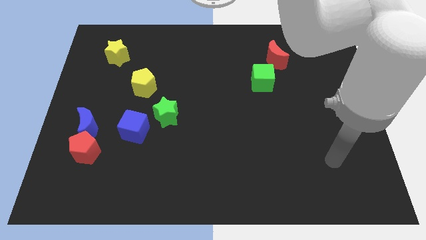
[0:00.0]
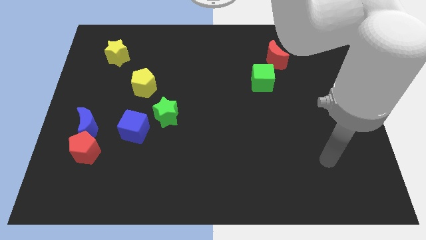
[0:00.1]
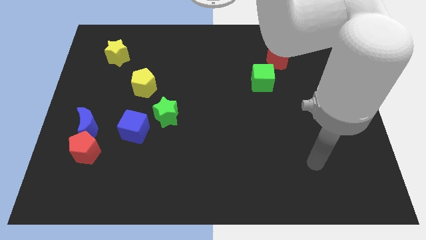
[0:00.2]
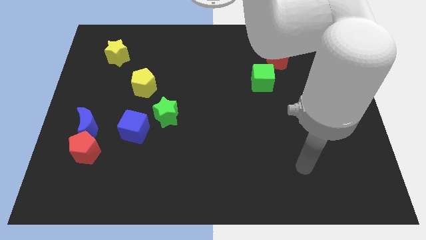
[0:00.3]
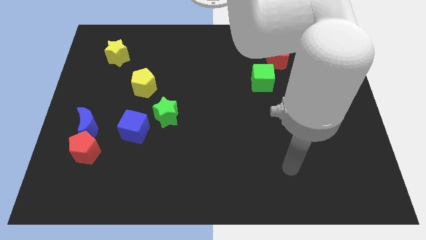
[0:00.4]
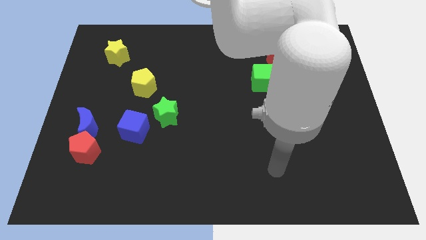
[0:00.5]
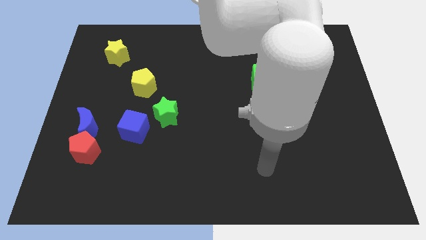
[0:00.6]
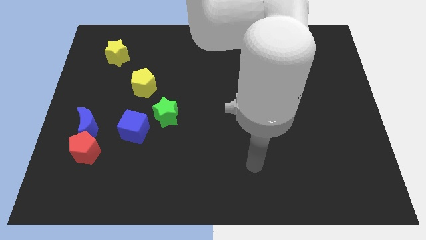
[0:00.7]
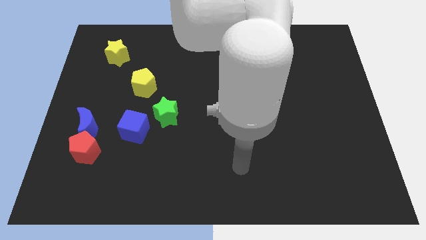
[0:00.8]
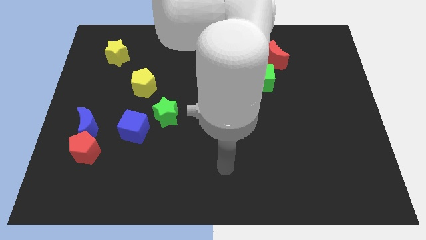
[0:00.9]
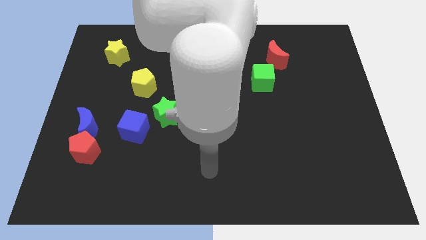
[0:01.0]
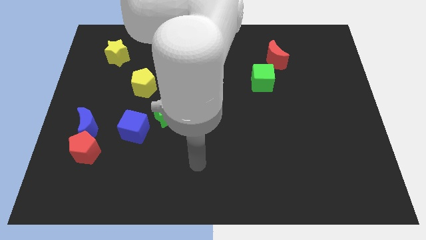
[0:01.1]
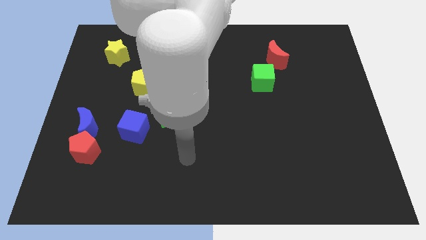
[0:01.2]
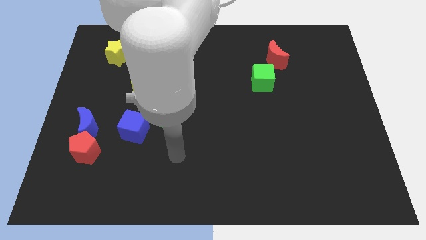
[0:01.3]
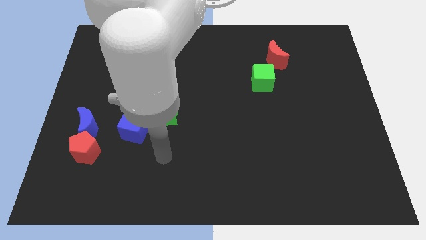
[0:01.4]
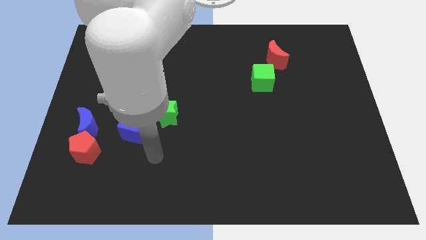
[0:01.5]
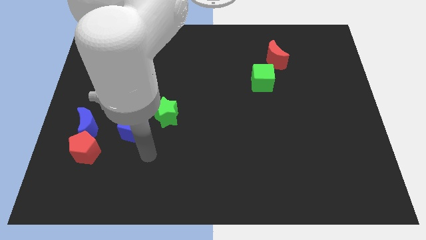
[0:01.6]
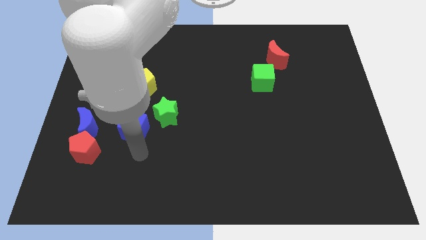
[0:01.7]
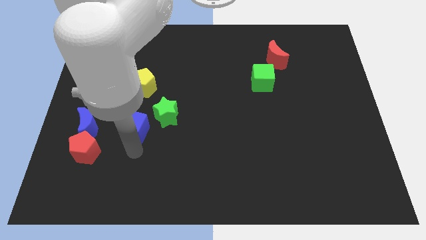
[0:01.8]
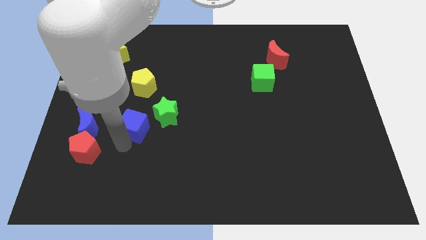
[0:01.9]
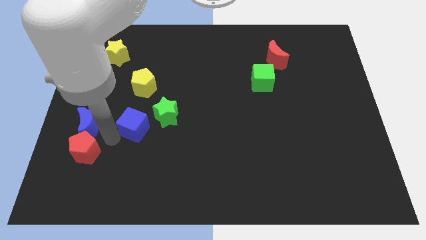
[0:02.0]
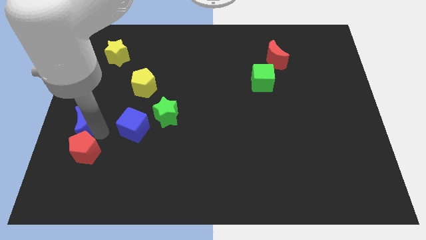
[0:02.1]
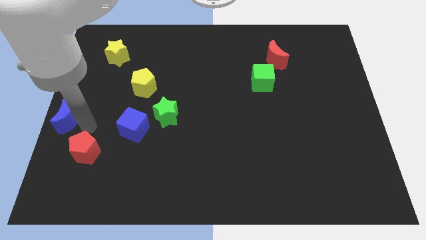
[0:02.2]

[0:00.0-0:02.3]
separate the red pentagon from the blue moon

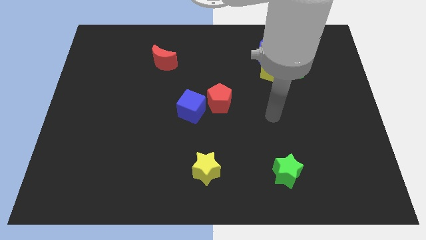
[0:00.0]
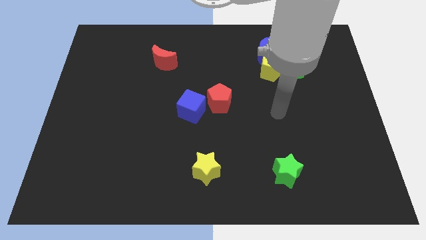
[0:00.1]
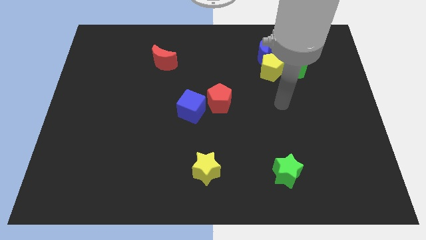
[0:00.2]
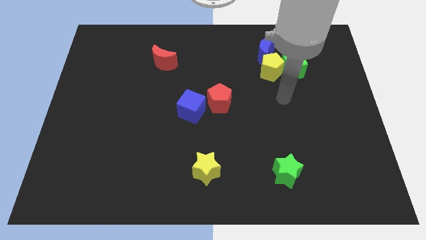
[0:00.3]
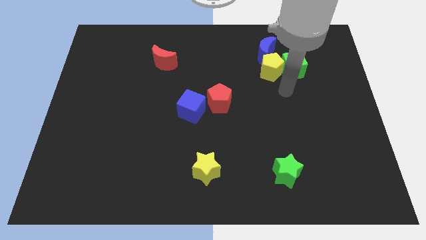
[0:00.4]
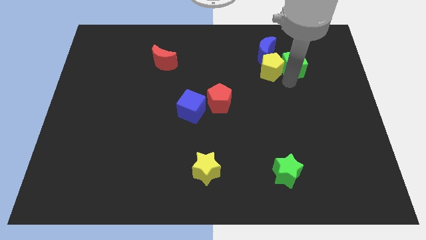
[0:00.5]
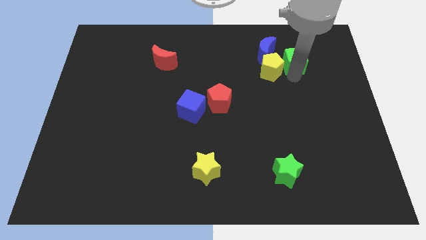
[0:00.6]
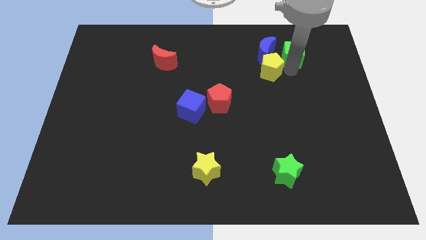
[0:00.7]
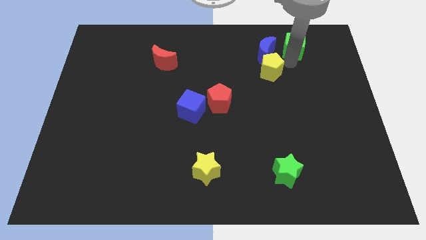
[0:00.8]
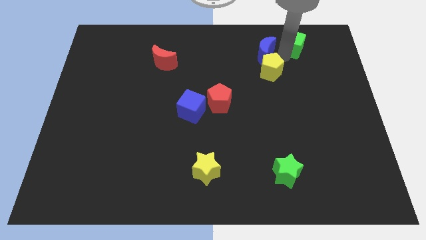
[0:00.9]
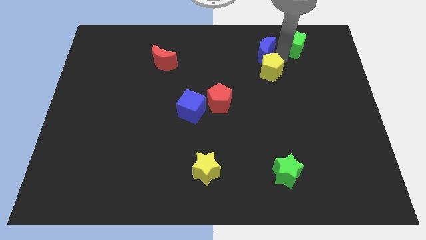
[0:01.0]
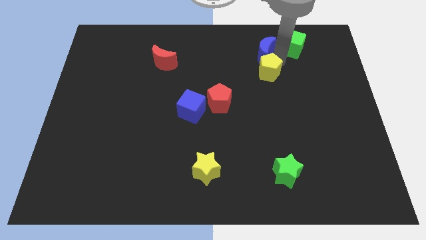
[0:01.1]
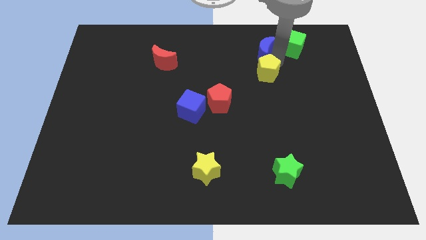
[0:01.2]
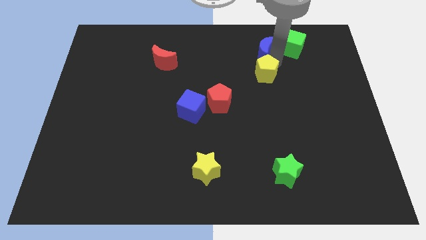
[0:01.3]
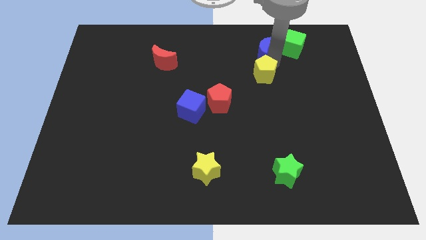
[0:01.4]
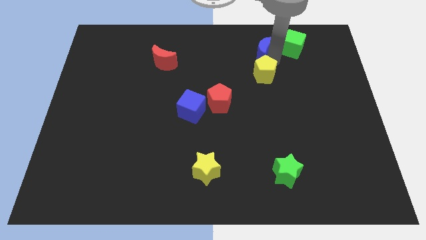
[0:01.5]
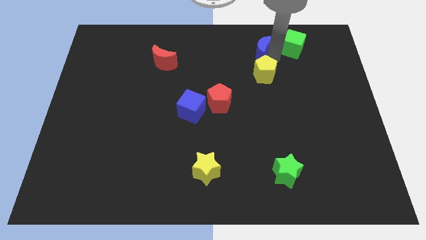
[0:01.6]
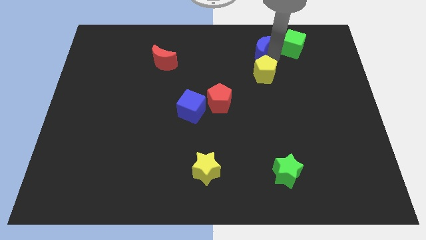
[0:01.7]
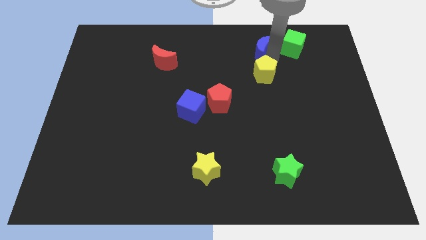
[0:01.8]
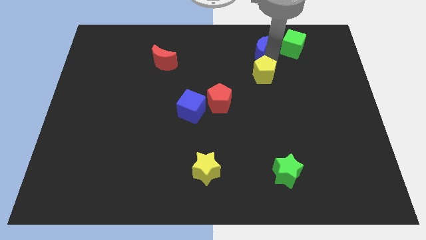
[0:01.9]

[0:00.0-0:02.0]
pull the yellow pentagon apart from the green cube and blue moon

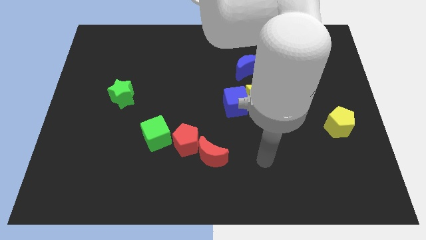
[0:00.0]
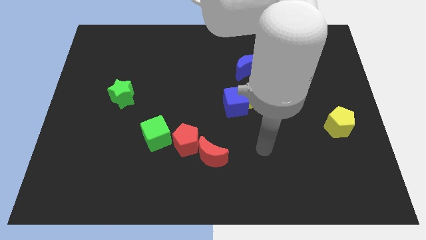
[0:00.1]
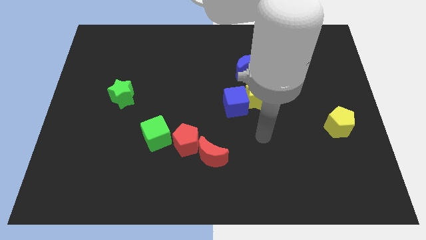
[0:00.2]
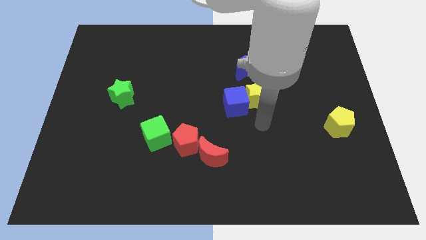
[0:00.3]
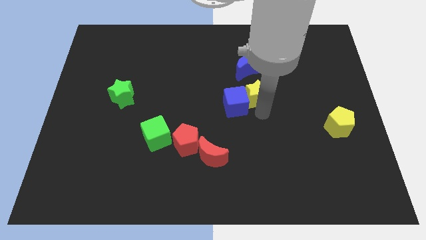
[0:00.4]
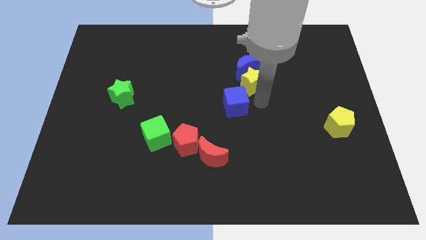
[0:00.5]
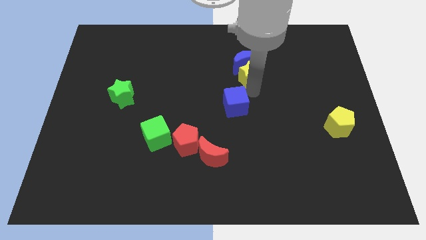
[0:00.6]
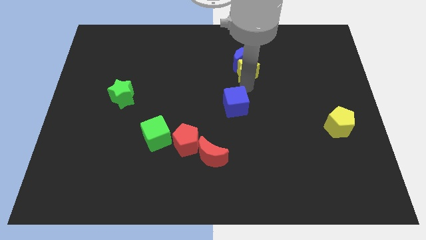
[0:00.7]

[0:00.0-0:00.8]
separate the blue cube from the yellow star

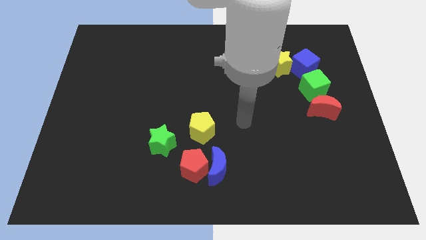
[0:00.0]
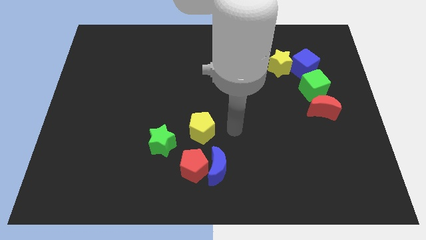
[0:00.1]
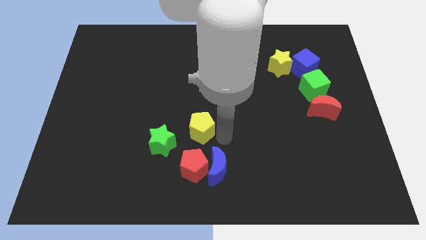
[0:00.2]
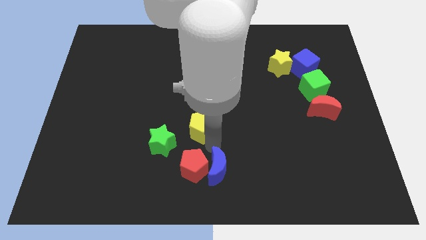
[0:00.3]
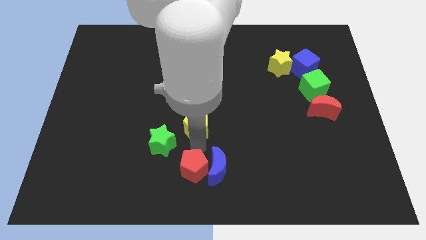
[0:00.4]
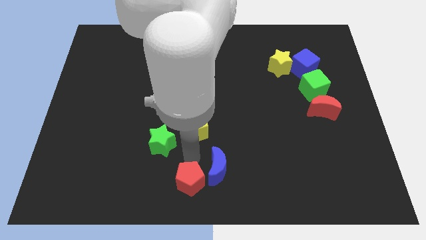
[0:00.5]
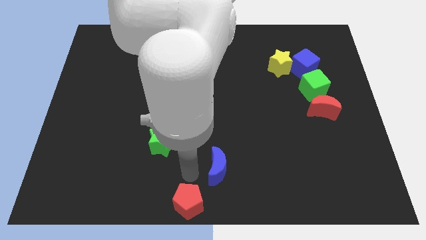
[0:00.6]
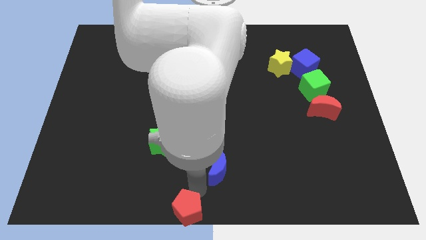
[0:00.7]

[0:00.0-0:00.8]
separate the blue moon from the red pentagon

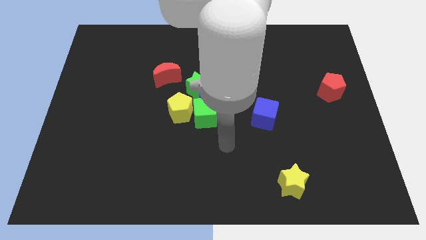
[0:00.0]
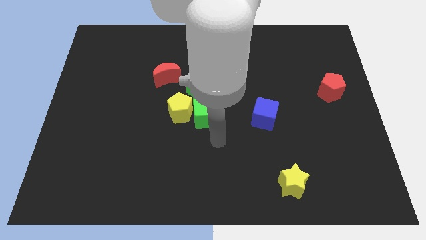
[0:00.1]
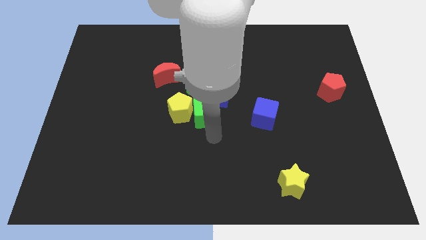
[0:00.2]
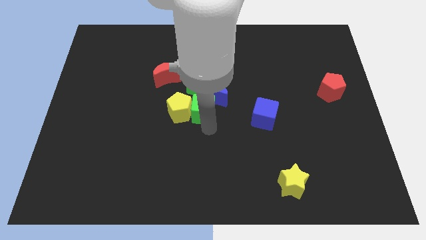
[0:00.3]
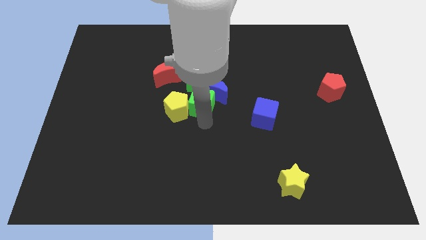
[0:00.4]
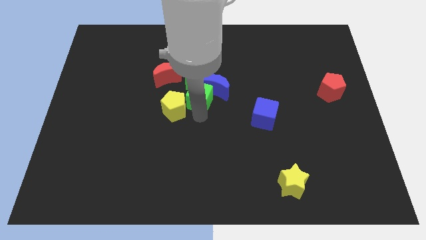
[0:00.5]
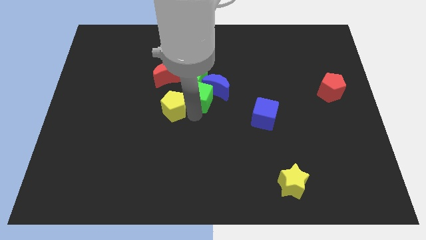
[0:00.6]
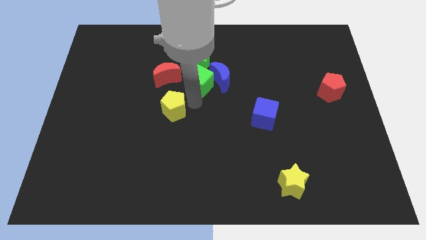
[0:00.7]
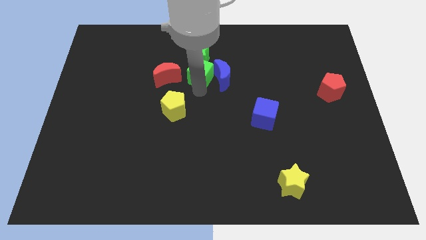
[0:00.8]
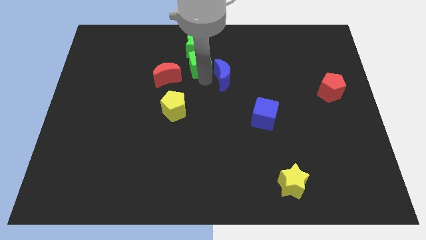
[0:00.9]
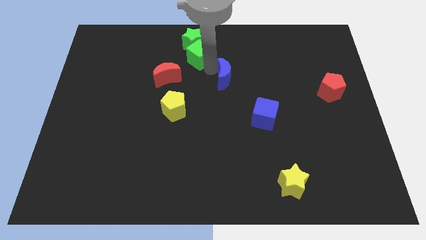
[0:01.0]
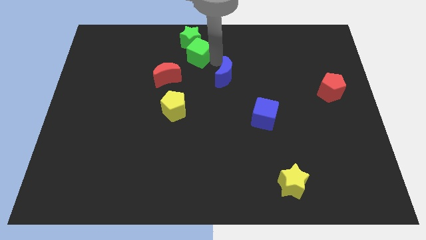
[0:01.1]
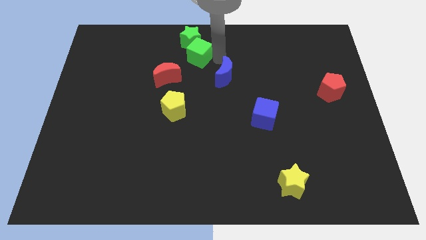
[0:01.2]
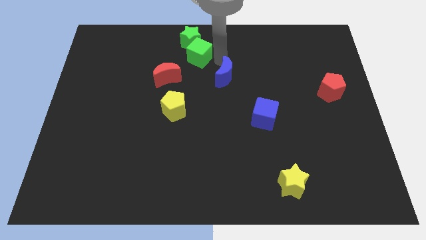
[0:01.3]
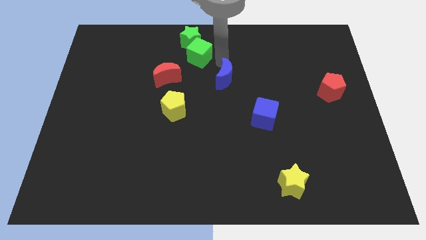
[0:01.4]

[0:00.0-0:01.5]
pull the blue moon apart from the green star, green cube, and yellow pentagon

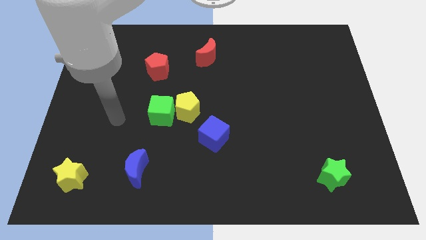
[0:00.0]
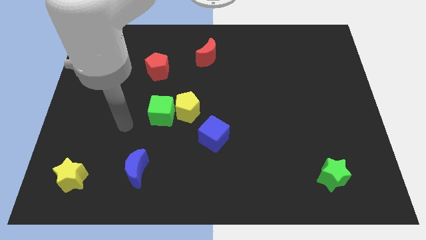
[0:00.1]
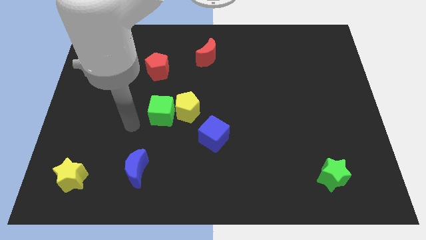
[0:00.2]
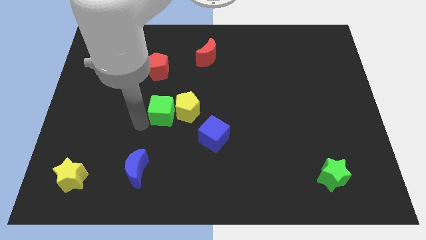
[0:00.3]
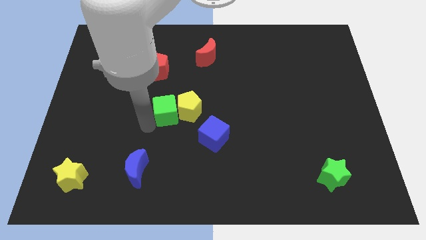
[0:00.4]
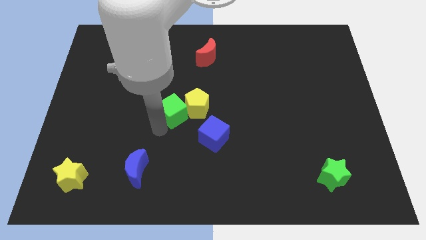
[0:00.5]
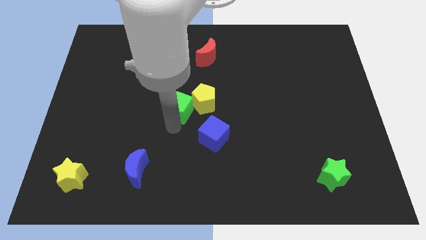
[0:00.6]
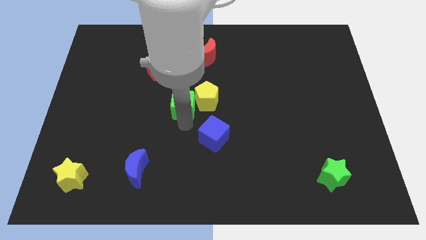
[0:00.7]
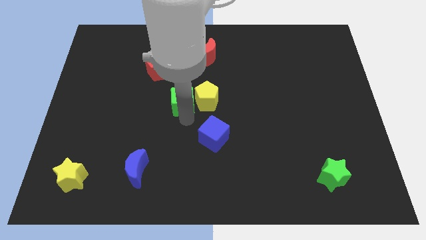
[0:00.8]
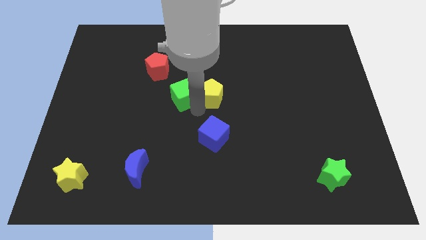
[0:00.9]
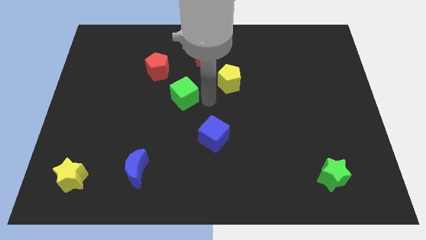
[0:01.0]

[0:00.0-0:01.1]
move the green cube away from the yellow pentagon

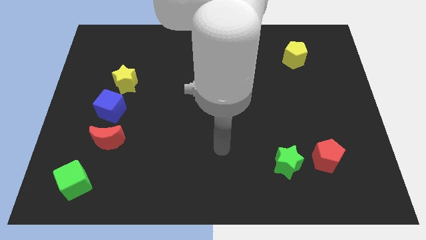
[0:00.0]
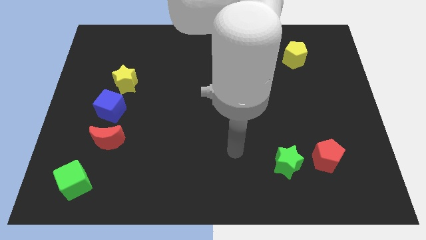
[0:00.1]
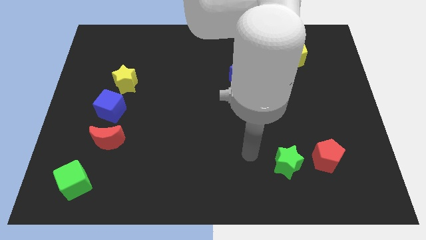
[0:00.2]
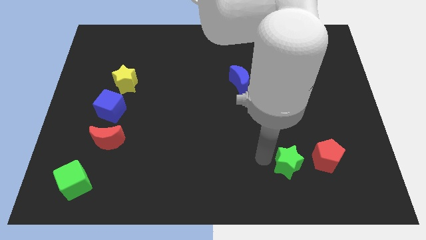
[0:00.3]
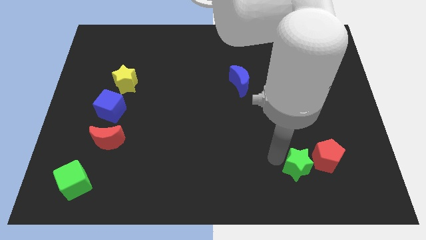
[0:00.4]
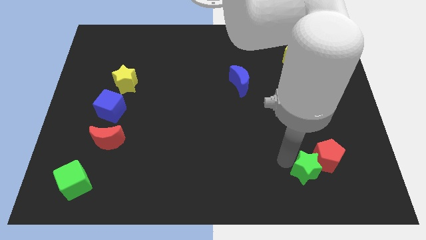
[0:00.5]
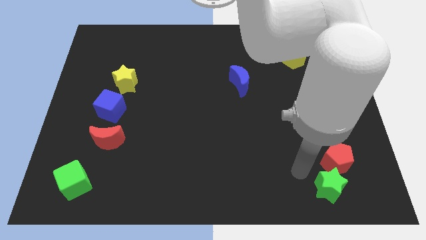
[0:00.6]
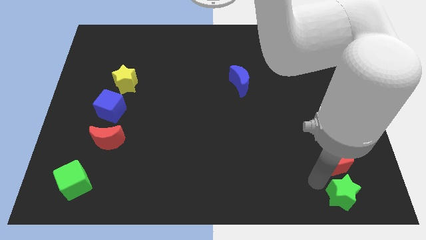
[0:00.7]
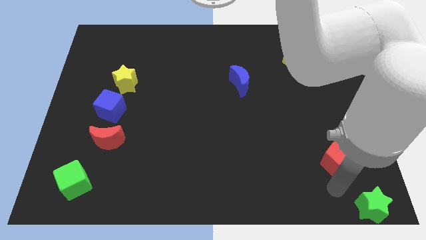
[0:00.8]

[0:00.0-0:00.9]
move the red pentagon away from the green star

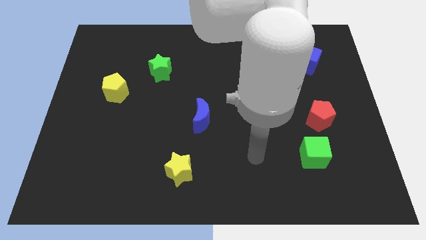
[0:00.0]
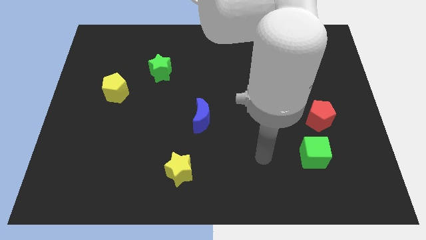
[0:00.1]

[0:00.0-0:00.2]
move the red pentagon away from the green cube
